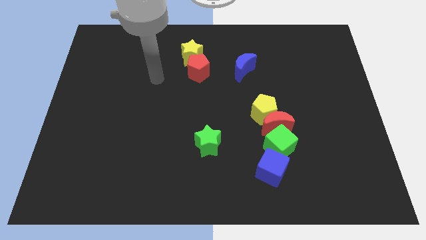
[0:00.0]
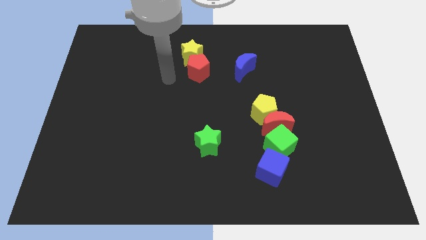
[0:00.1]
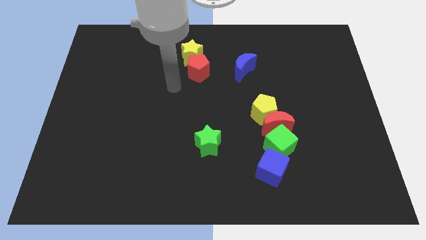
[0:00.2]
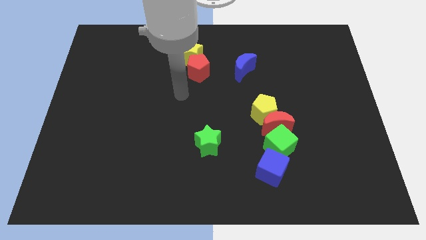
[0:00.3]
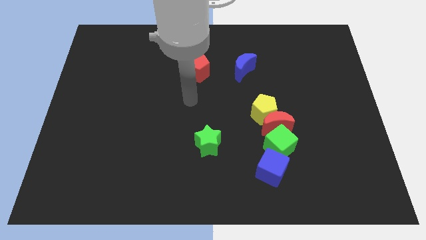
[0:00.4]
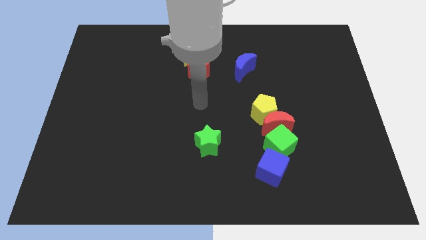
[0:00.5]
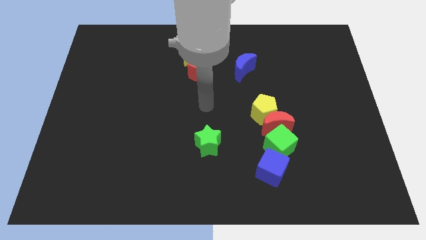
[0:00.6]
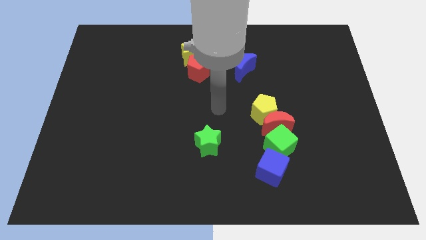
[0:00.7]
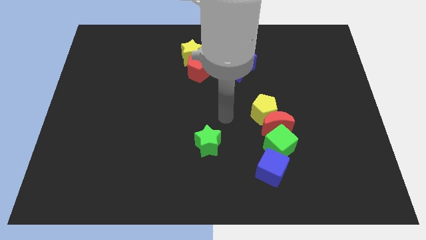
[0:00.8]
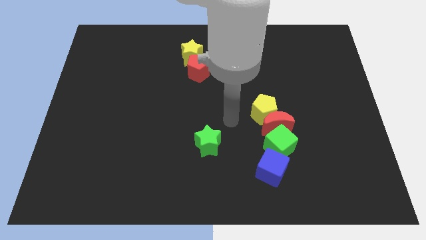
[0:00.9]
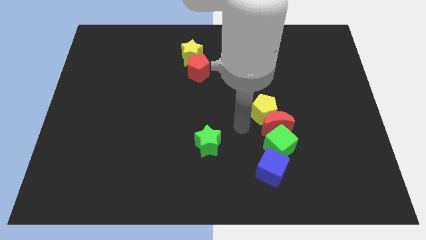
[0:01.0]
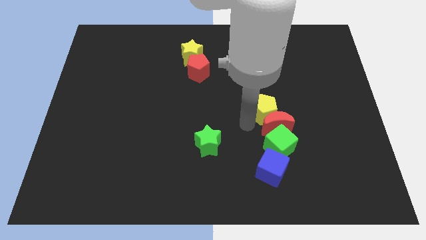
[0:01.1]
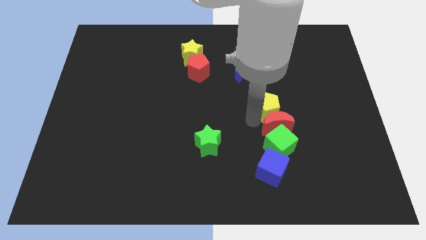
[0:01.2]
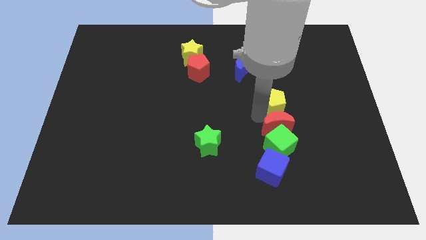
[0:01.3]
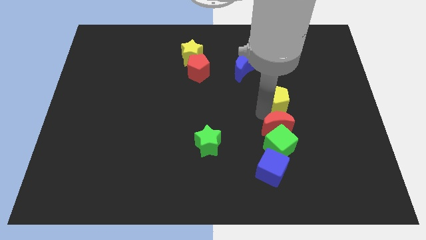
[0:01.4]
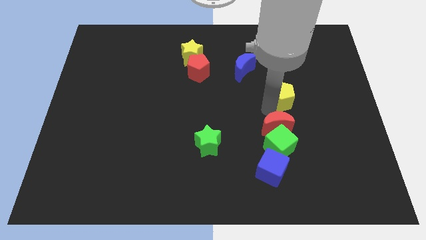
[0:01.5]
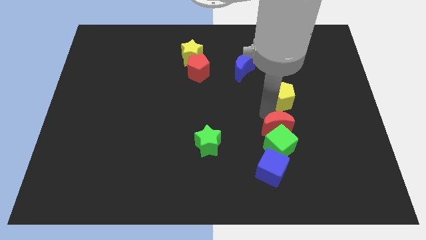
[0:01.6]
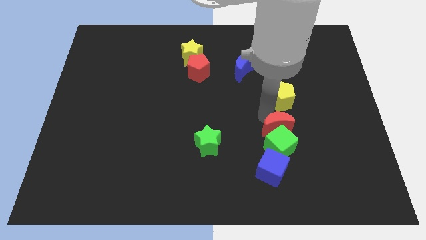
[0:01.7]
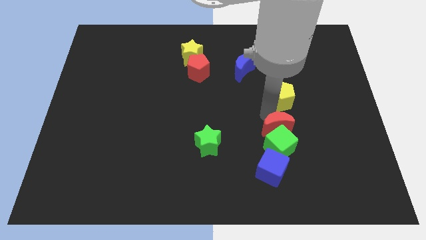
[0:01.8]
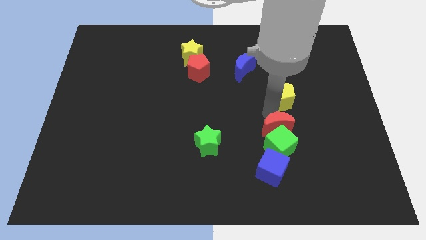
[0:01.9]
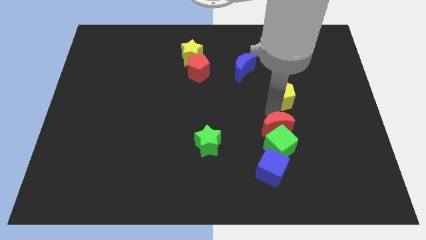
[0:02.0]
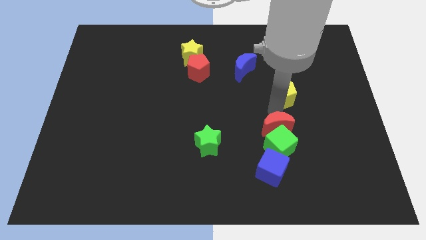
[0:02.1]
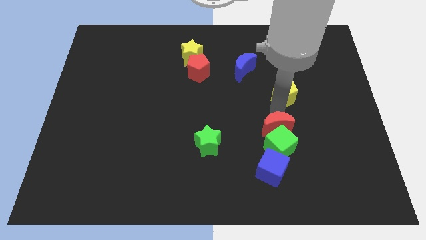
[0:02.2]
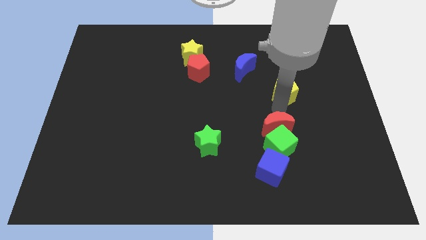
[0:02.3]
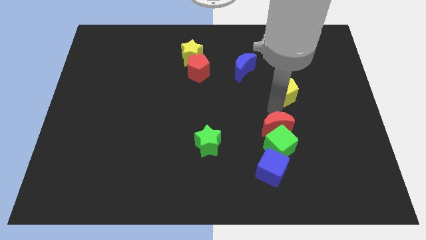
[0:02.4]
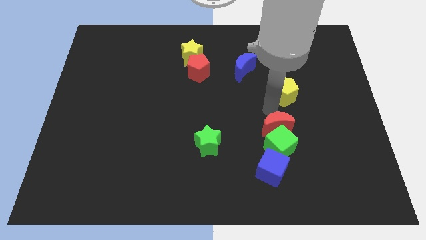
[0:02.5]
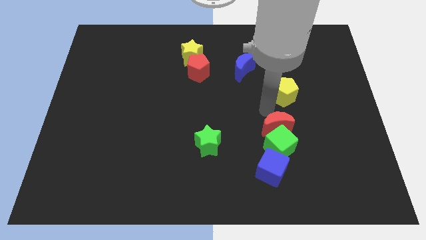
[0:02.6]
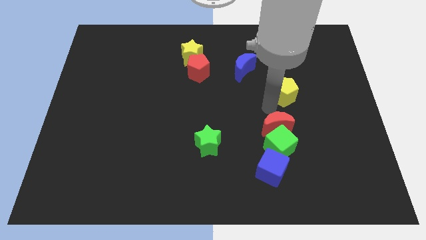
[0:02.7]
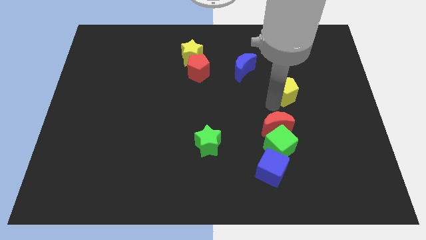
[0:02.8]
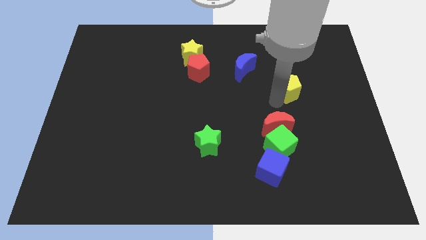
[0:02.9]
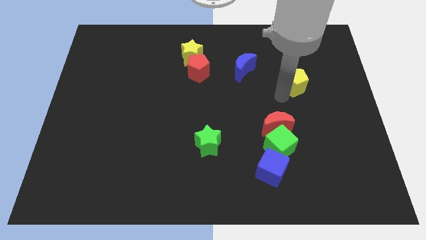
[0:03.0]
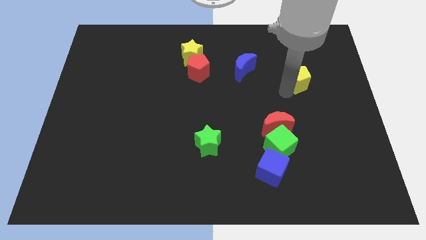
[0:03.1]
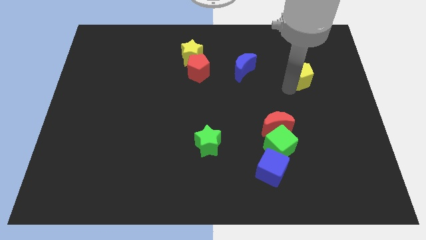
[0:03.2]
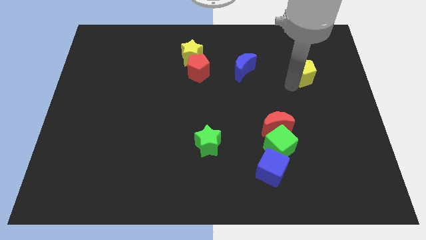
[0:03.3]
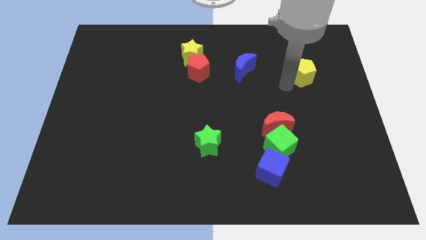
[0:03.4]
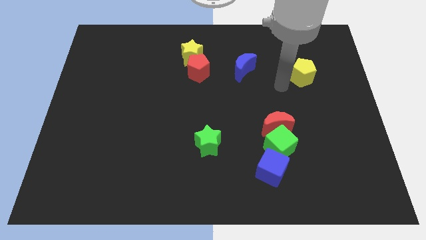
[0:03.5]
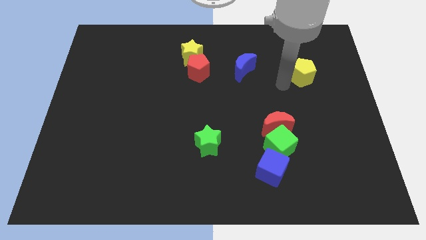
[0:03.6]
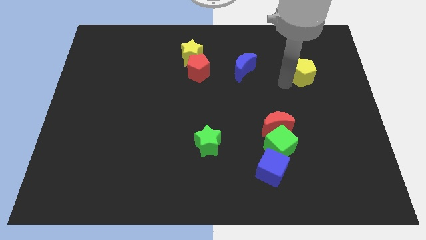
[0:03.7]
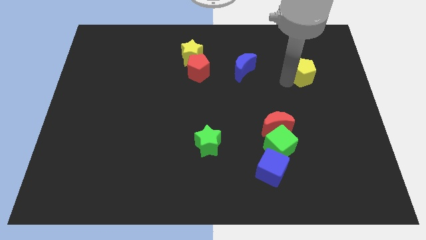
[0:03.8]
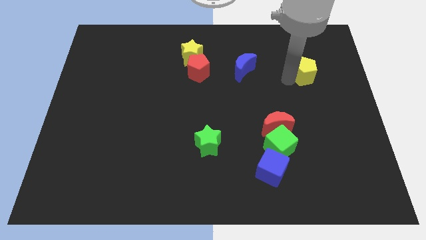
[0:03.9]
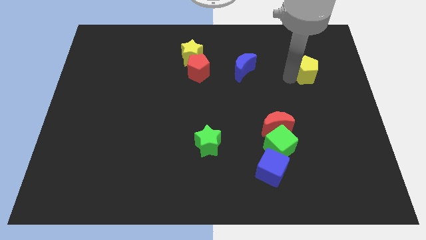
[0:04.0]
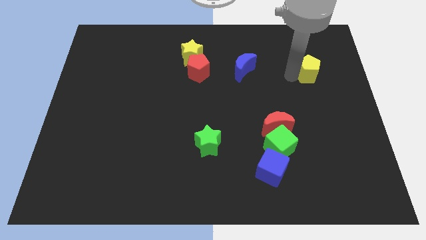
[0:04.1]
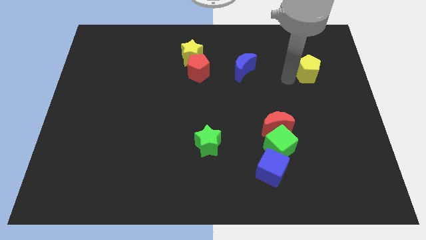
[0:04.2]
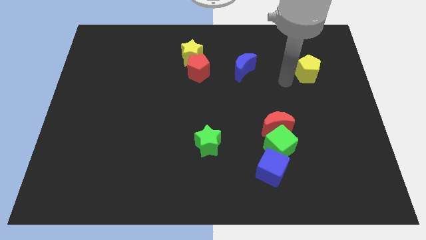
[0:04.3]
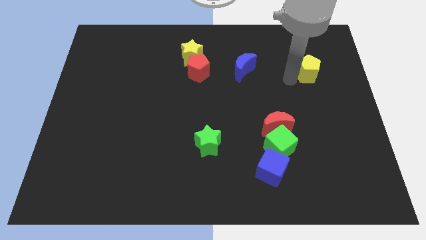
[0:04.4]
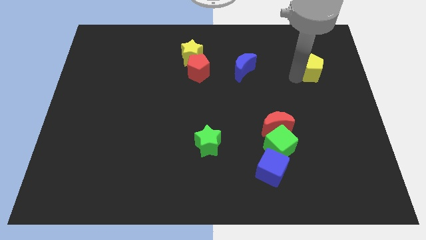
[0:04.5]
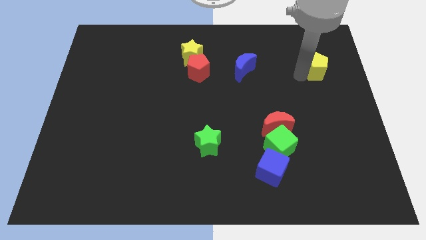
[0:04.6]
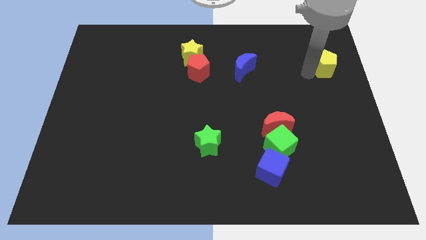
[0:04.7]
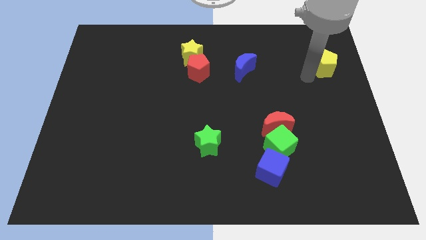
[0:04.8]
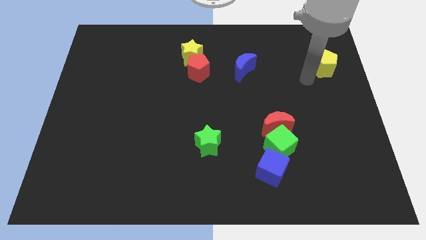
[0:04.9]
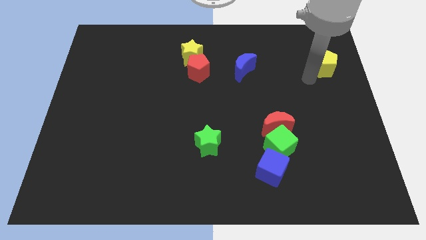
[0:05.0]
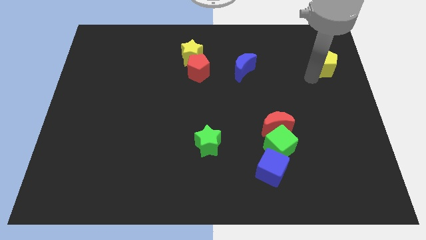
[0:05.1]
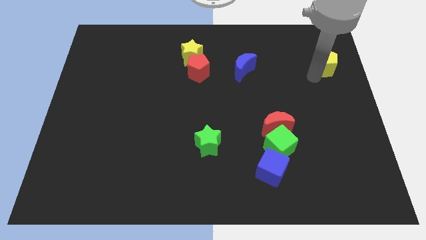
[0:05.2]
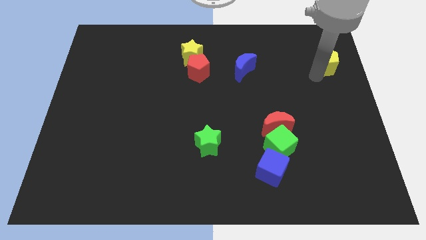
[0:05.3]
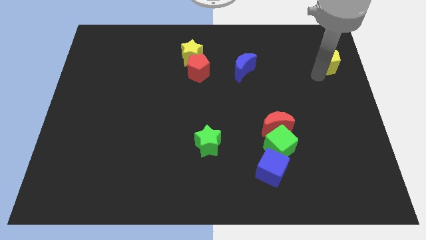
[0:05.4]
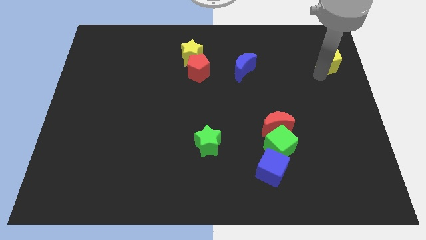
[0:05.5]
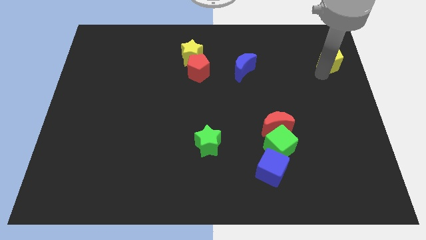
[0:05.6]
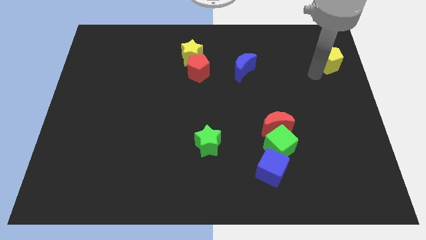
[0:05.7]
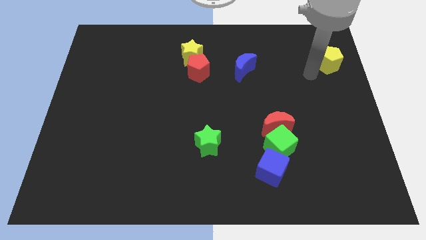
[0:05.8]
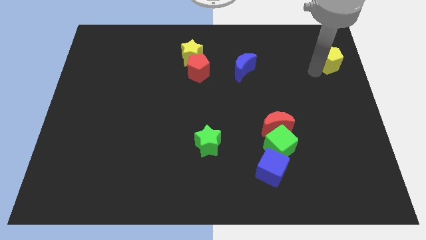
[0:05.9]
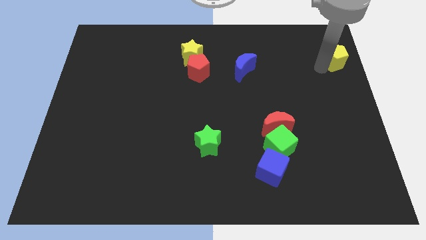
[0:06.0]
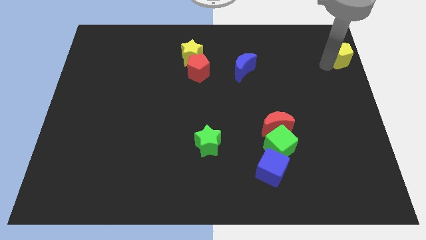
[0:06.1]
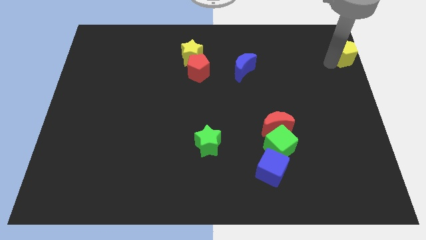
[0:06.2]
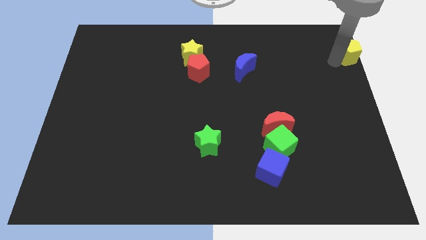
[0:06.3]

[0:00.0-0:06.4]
put the yellow pentagon to the top right corner

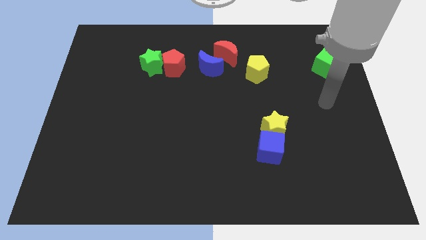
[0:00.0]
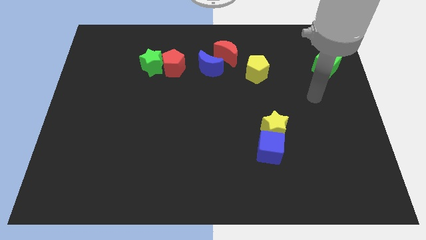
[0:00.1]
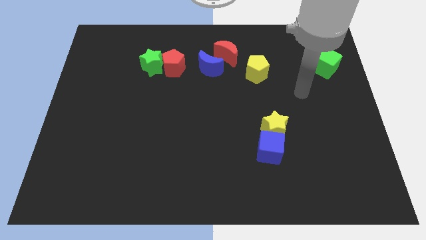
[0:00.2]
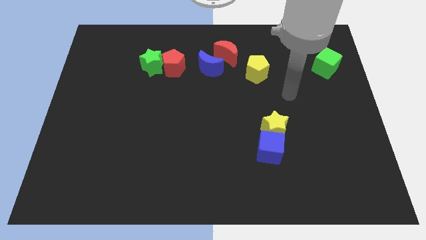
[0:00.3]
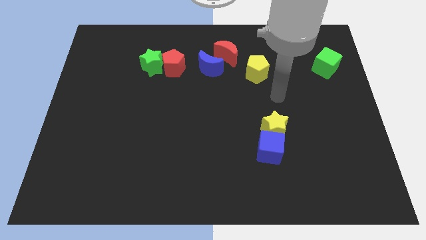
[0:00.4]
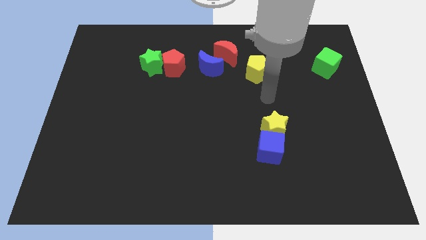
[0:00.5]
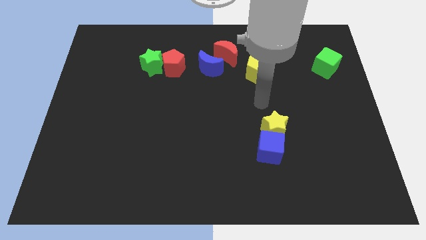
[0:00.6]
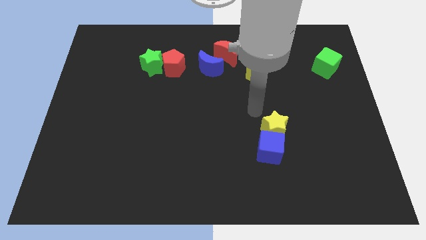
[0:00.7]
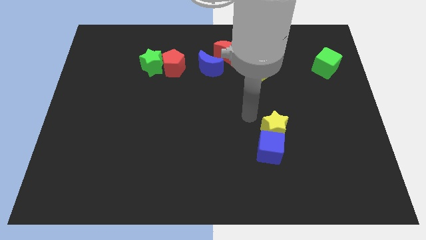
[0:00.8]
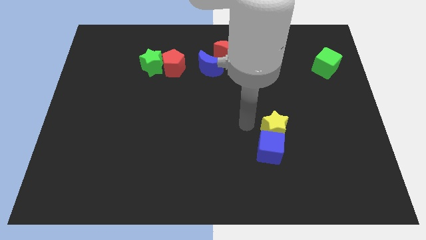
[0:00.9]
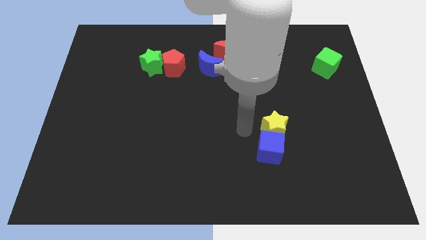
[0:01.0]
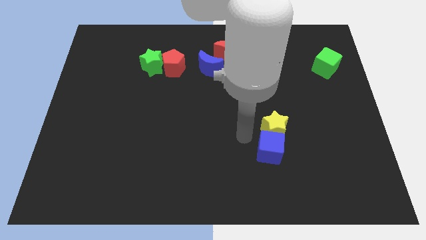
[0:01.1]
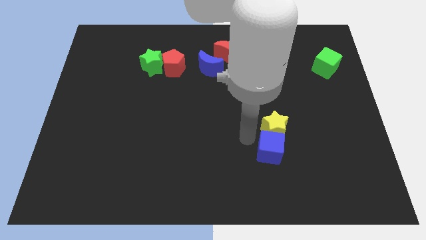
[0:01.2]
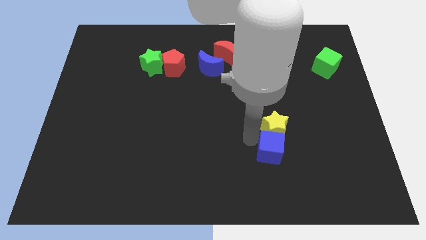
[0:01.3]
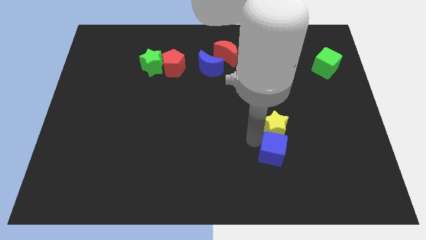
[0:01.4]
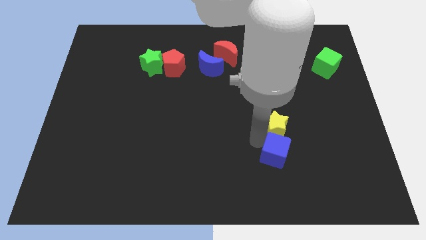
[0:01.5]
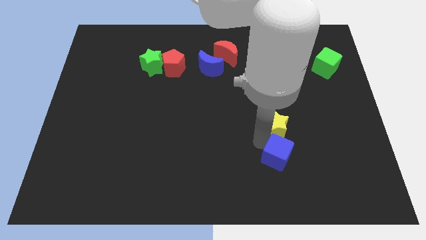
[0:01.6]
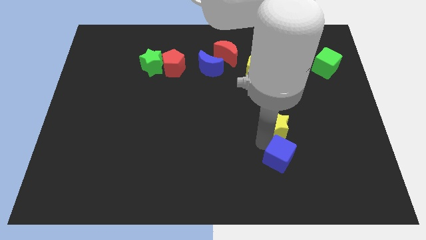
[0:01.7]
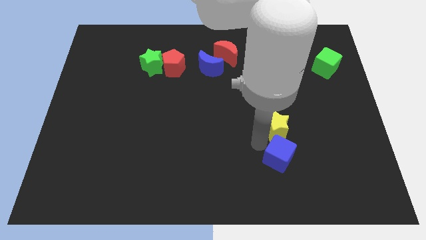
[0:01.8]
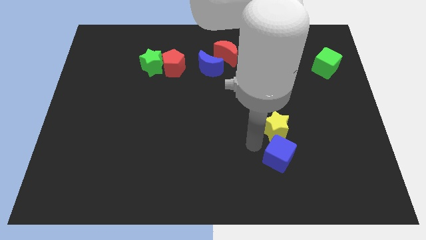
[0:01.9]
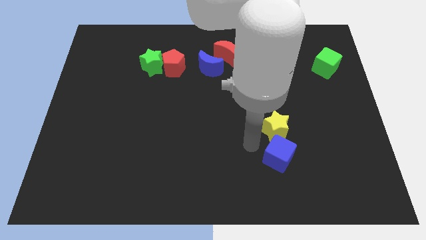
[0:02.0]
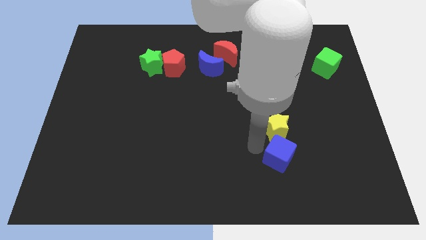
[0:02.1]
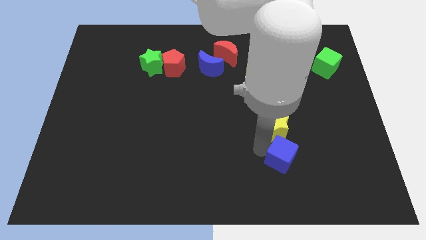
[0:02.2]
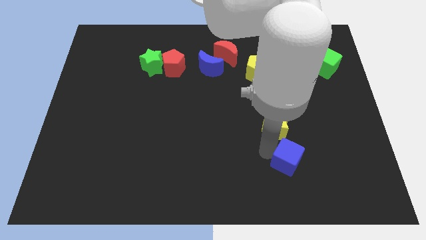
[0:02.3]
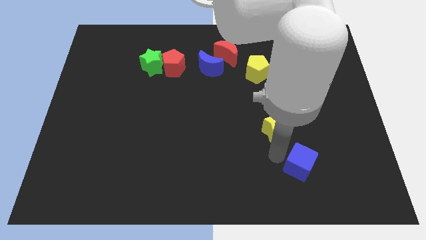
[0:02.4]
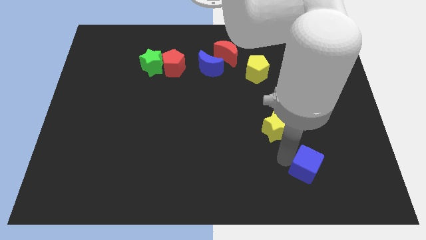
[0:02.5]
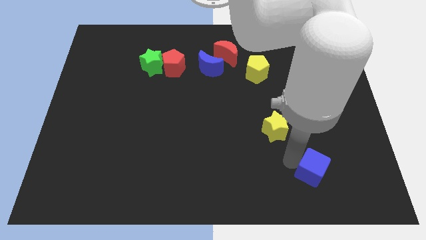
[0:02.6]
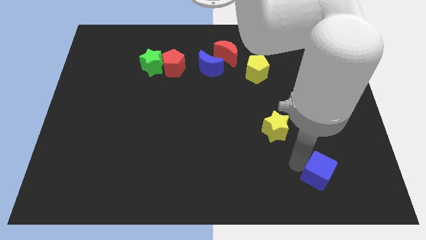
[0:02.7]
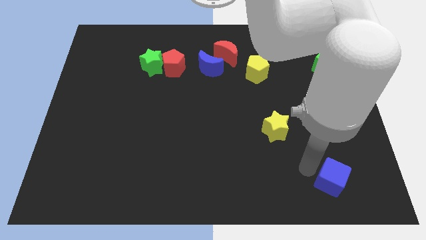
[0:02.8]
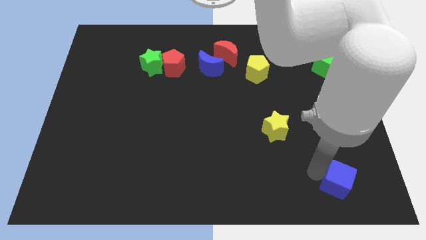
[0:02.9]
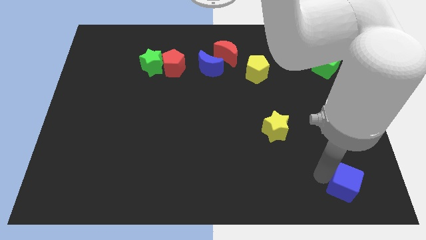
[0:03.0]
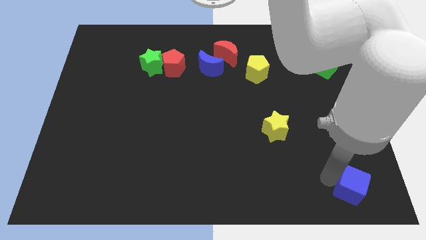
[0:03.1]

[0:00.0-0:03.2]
push the blue cube to the bottom right
